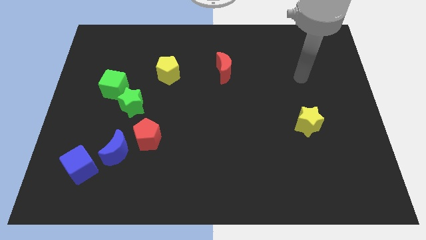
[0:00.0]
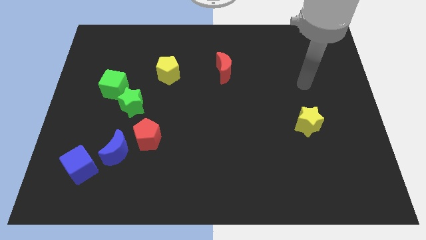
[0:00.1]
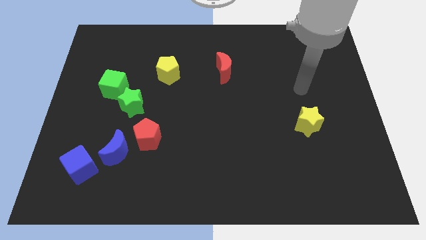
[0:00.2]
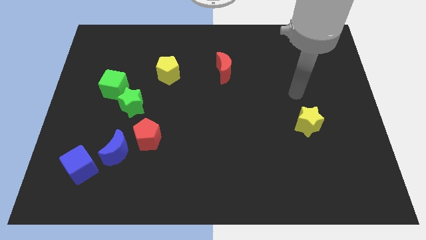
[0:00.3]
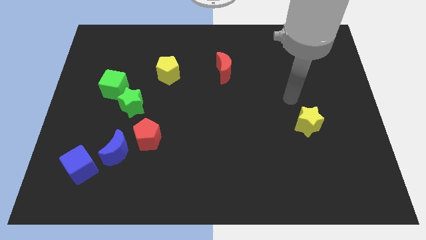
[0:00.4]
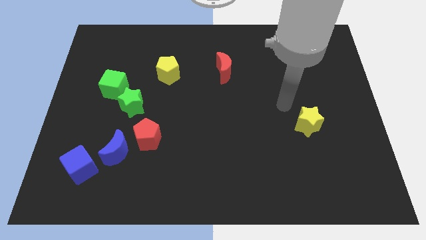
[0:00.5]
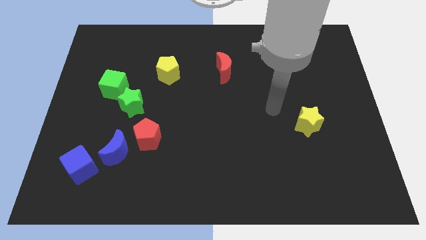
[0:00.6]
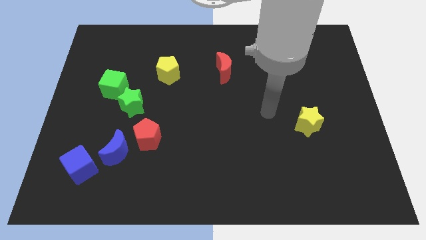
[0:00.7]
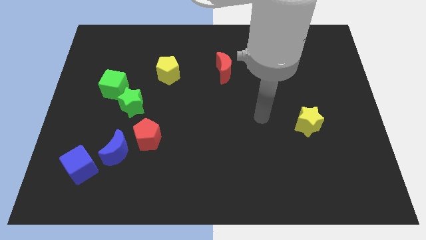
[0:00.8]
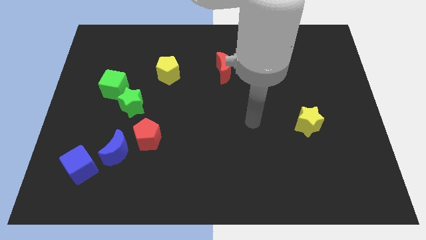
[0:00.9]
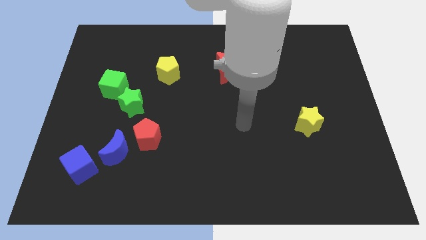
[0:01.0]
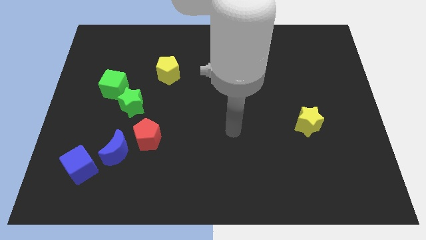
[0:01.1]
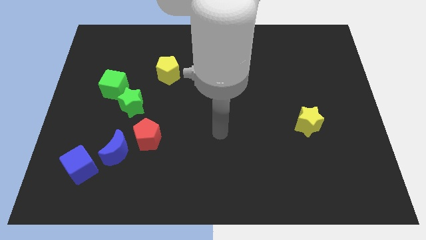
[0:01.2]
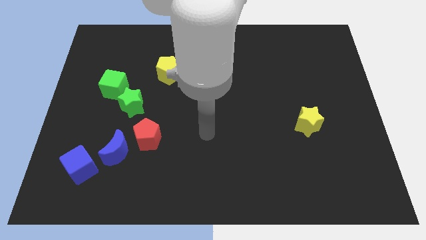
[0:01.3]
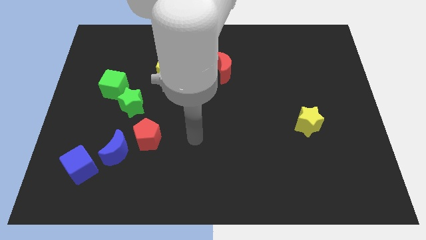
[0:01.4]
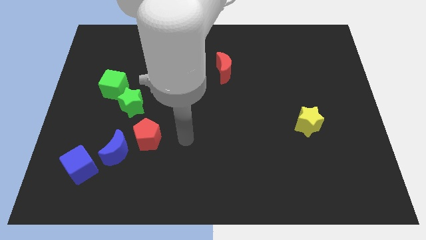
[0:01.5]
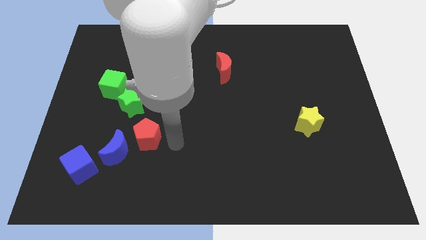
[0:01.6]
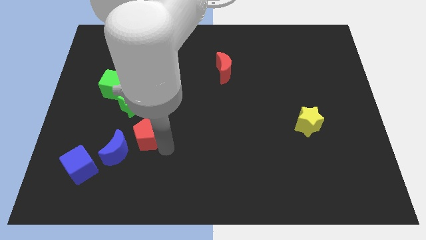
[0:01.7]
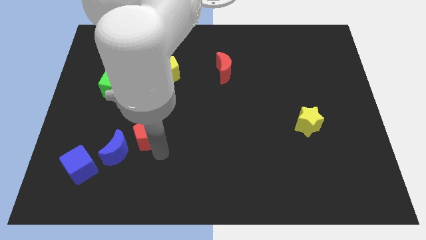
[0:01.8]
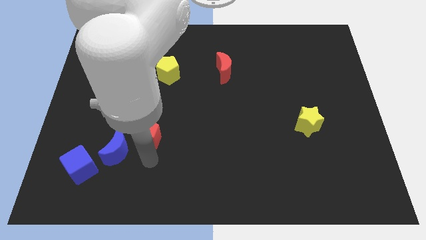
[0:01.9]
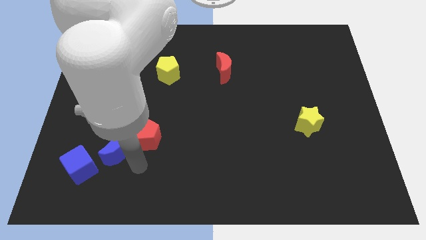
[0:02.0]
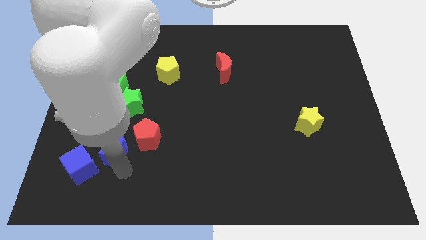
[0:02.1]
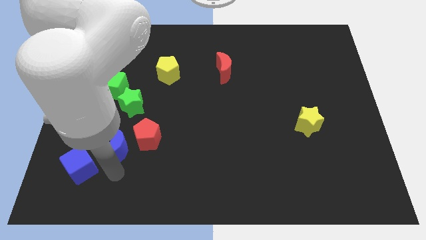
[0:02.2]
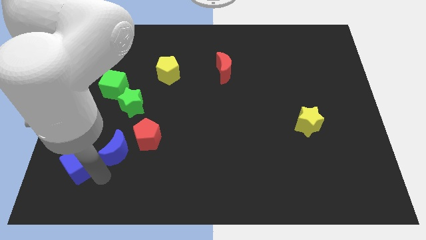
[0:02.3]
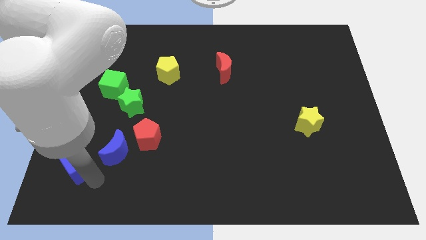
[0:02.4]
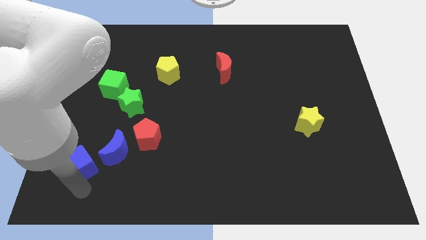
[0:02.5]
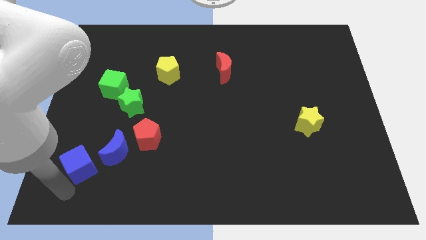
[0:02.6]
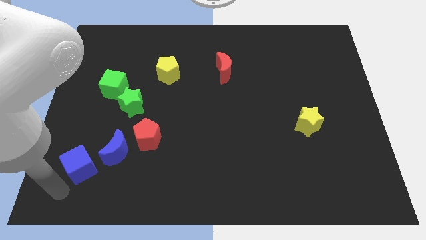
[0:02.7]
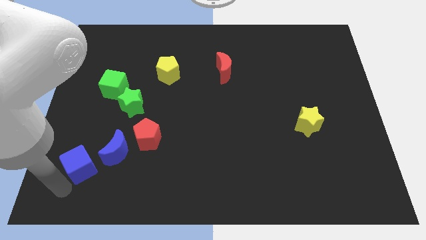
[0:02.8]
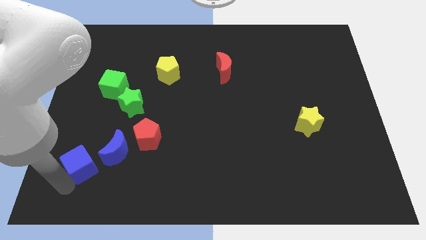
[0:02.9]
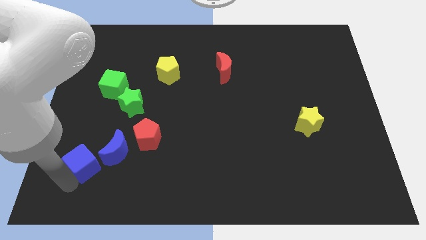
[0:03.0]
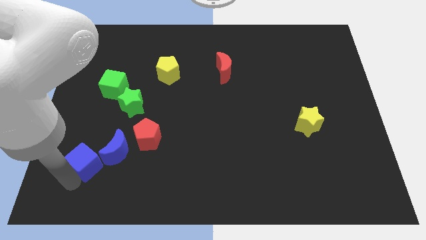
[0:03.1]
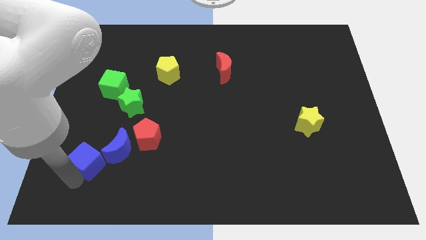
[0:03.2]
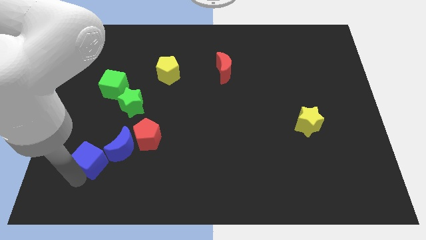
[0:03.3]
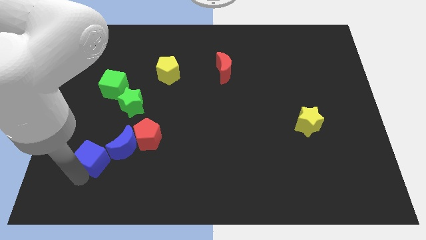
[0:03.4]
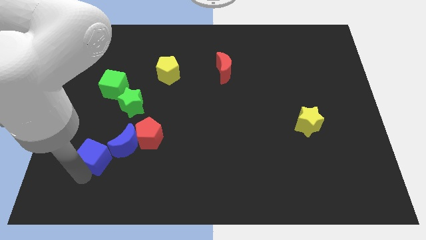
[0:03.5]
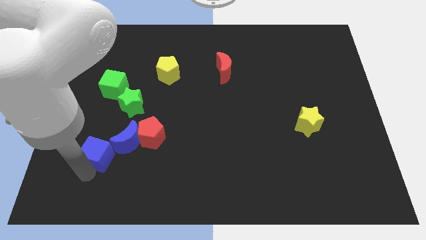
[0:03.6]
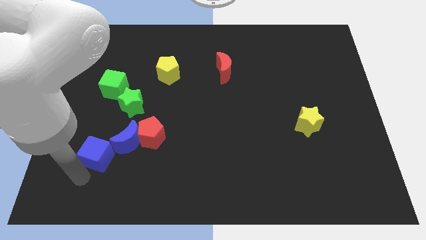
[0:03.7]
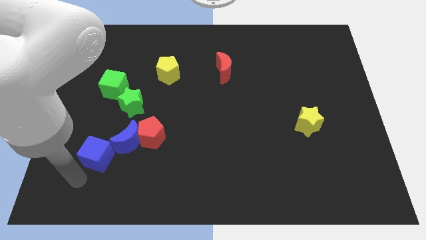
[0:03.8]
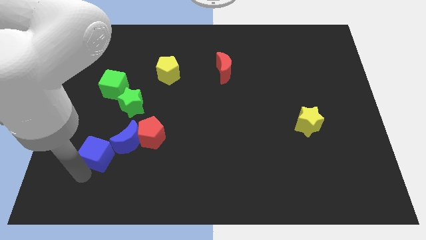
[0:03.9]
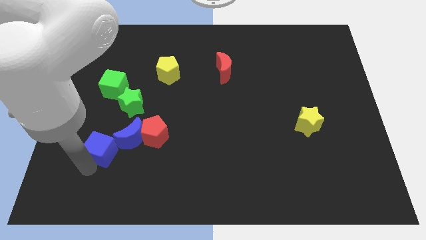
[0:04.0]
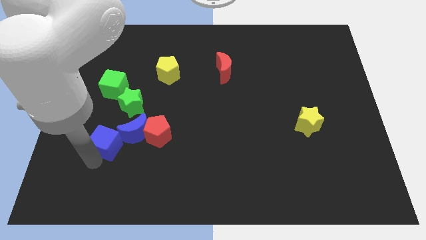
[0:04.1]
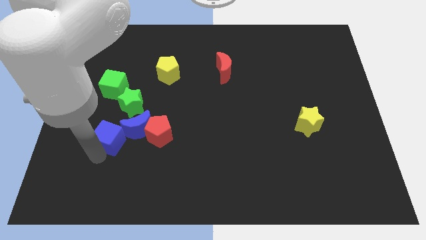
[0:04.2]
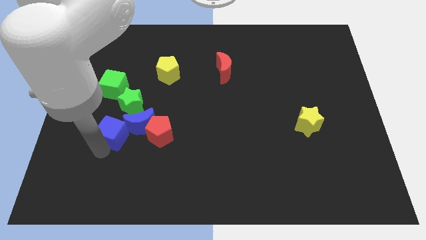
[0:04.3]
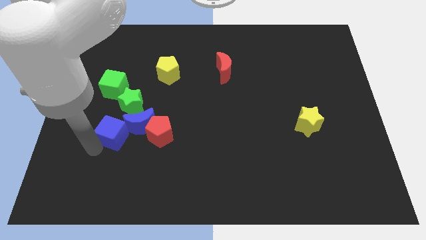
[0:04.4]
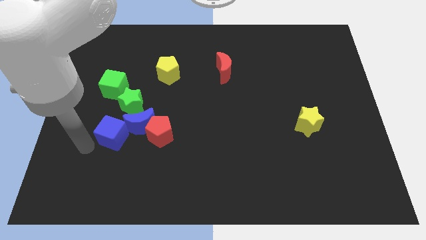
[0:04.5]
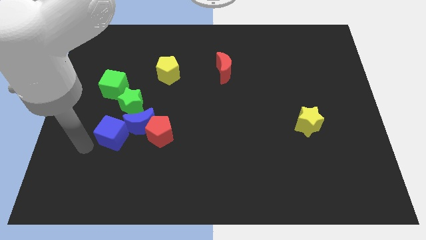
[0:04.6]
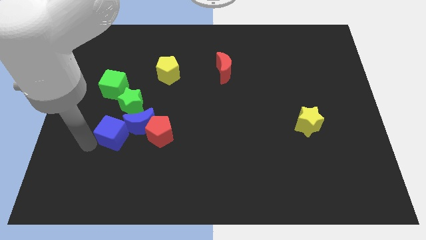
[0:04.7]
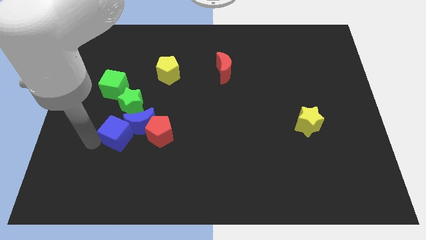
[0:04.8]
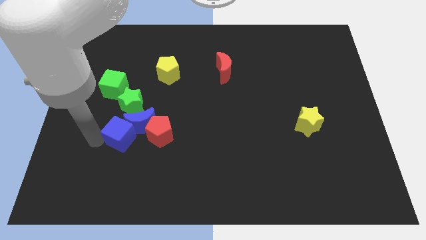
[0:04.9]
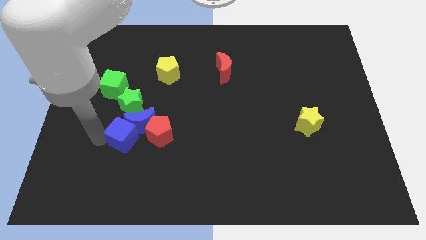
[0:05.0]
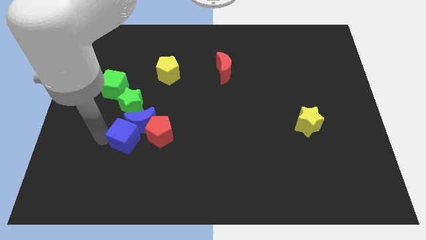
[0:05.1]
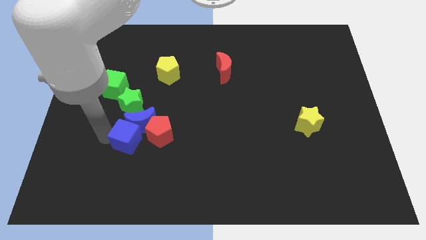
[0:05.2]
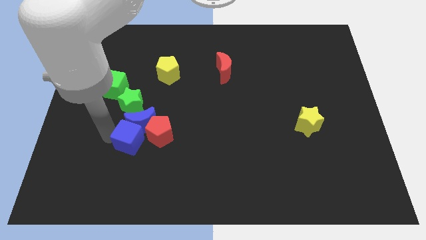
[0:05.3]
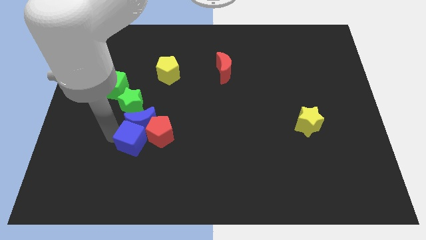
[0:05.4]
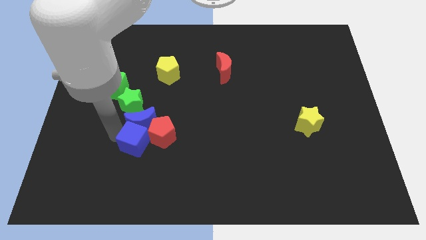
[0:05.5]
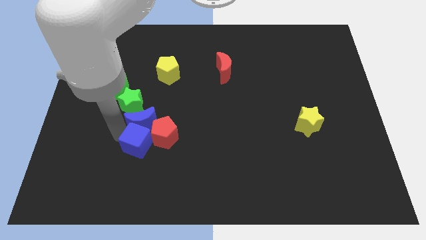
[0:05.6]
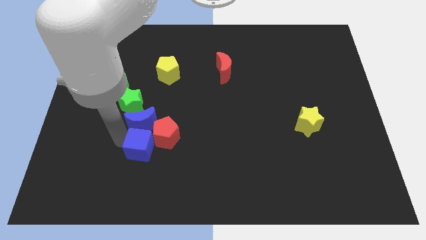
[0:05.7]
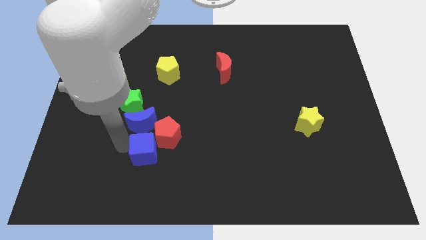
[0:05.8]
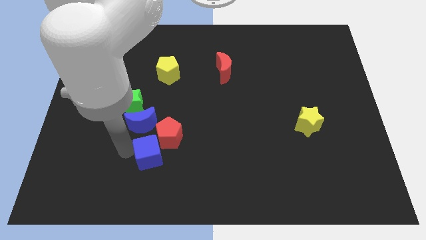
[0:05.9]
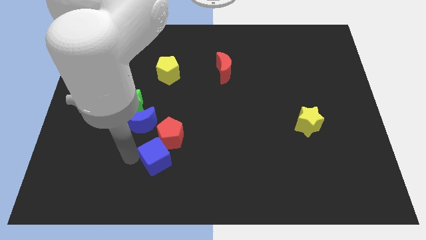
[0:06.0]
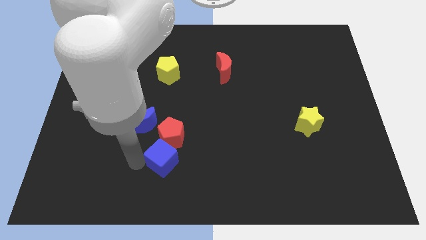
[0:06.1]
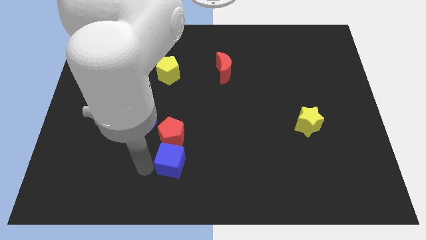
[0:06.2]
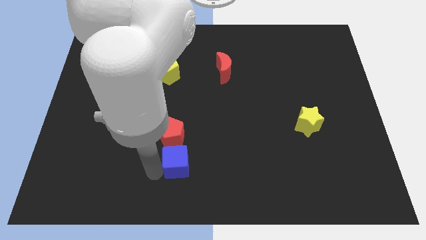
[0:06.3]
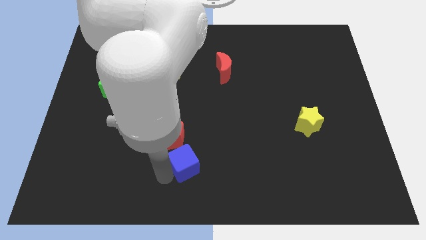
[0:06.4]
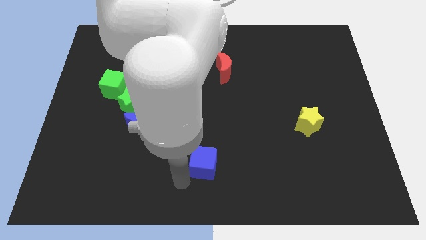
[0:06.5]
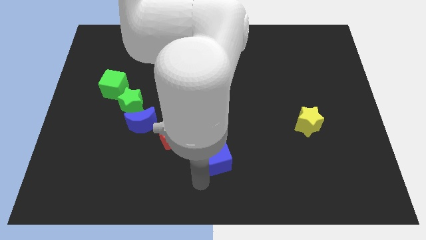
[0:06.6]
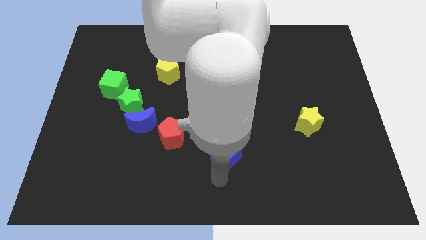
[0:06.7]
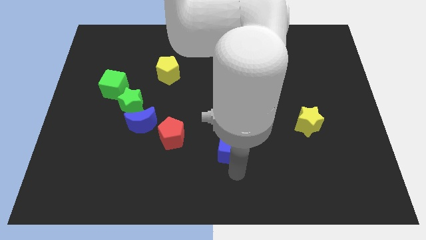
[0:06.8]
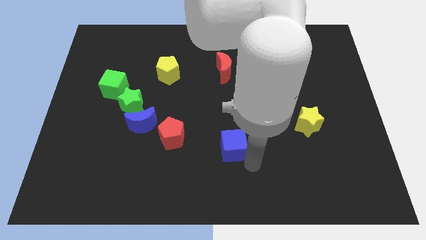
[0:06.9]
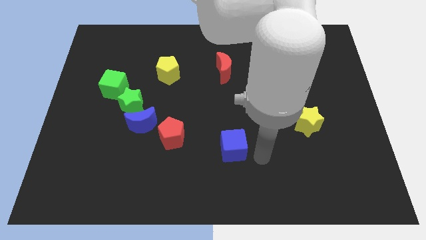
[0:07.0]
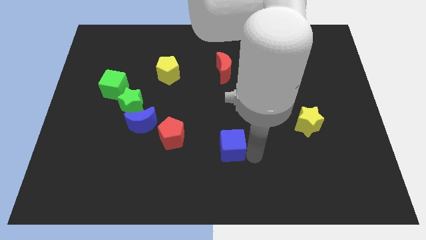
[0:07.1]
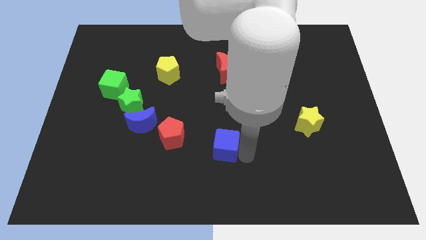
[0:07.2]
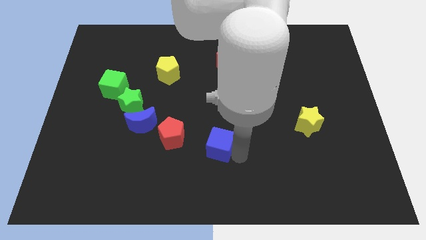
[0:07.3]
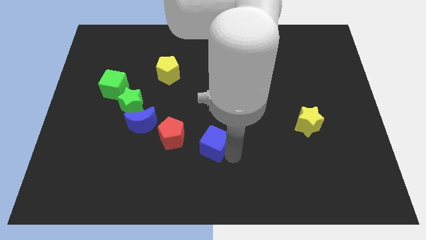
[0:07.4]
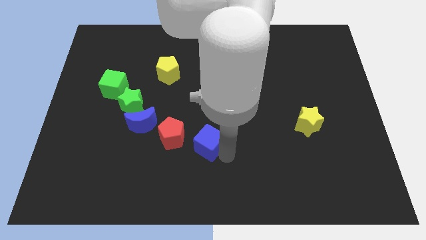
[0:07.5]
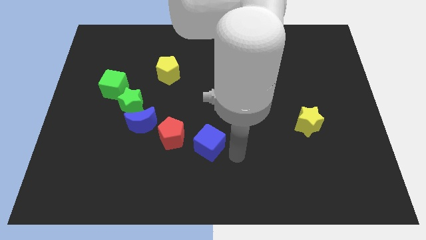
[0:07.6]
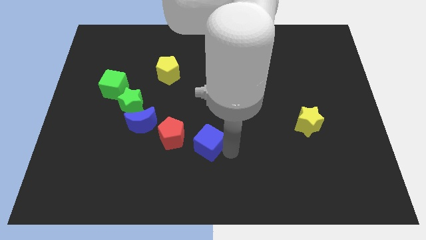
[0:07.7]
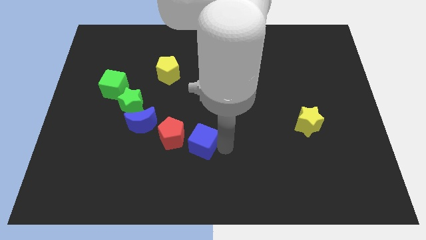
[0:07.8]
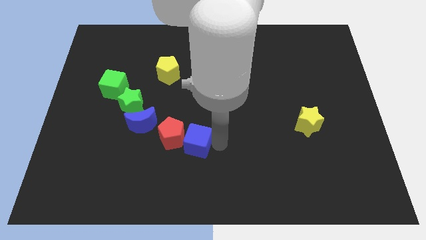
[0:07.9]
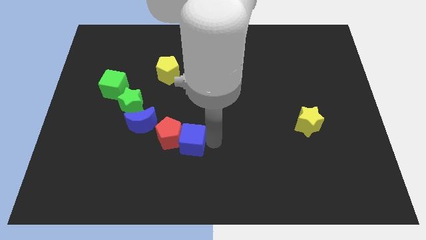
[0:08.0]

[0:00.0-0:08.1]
move the blue cube to the top right of the red pentagon
